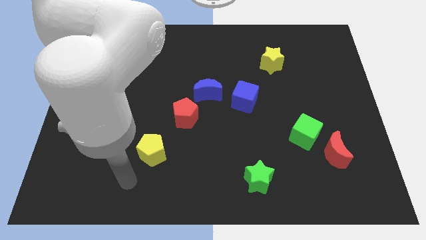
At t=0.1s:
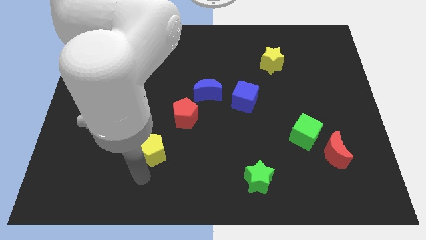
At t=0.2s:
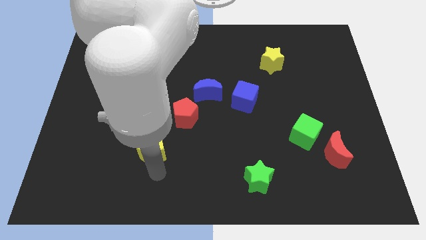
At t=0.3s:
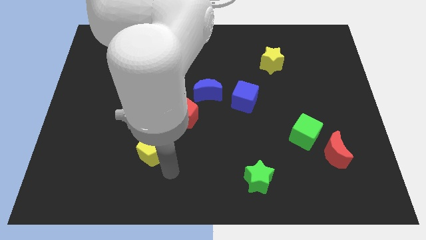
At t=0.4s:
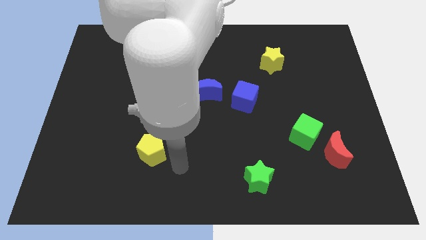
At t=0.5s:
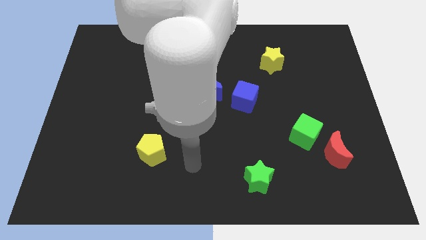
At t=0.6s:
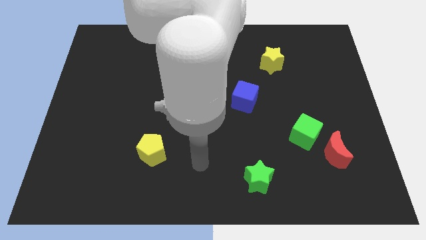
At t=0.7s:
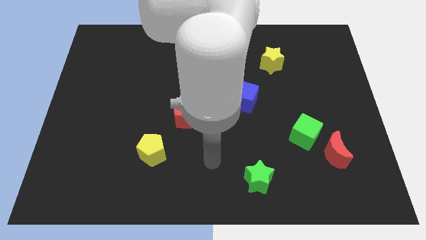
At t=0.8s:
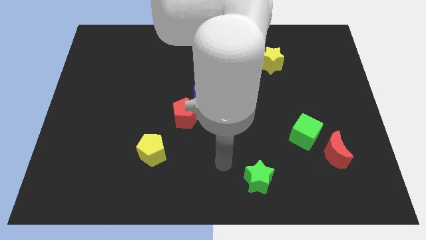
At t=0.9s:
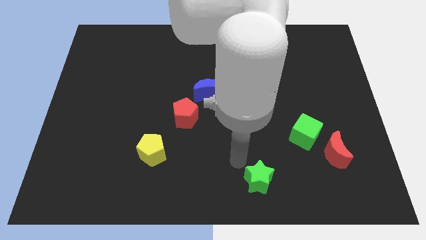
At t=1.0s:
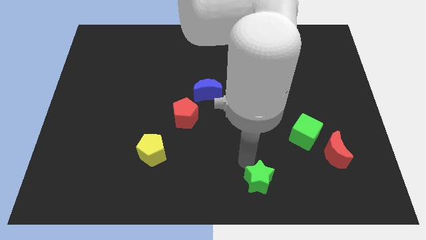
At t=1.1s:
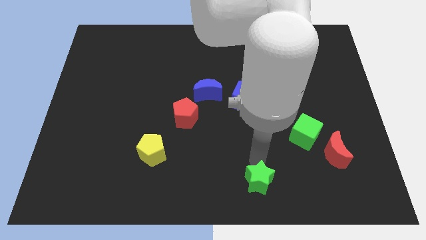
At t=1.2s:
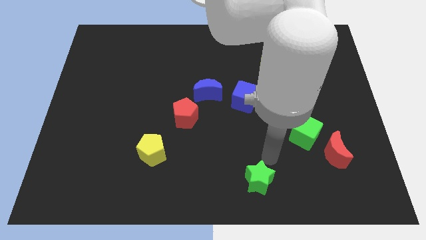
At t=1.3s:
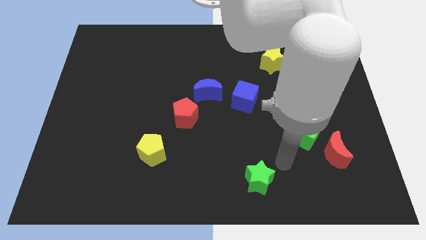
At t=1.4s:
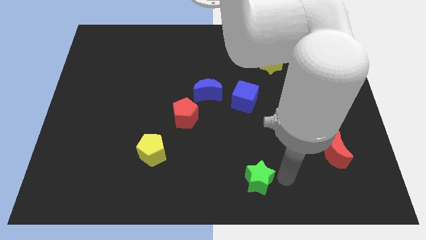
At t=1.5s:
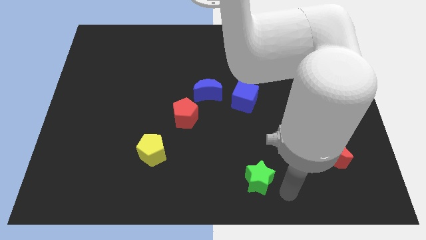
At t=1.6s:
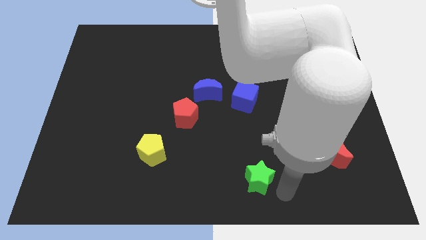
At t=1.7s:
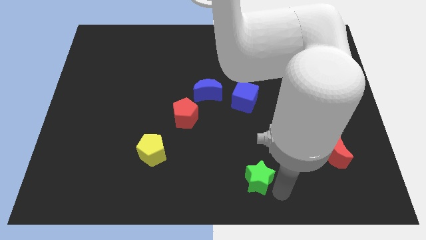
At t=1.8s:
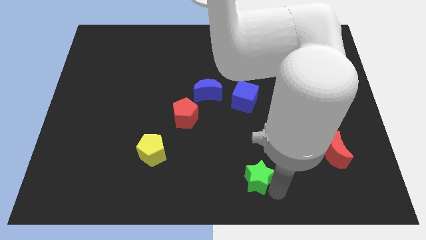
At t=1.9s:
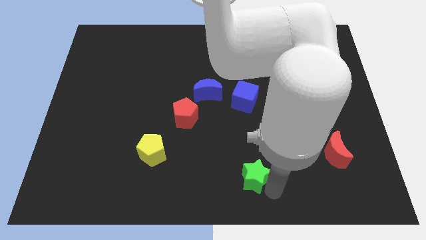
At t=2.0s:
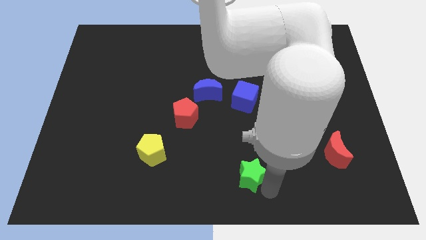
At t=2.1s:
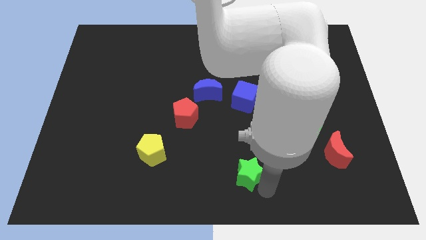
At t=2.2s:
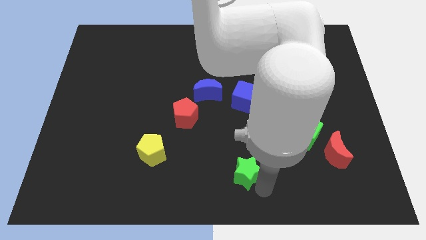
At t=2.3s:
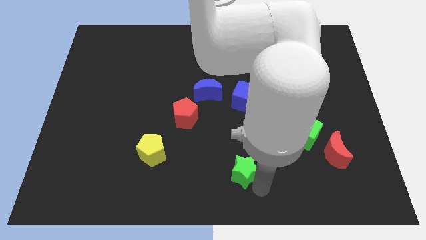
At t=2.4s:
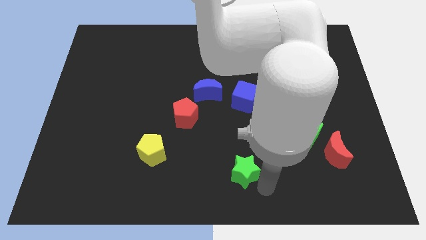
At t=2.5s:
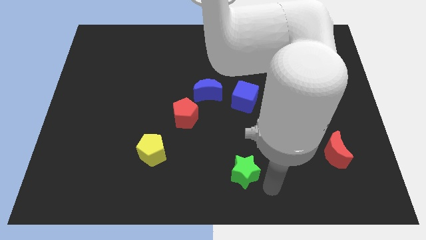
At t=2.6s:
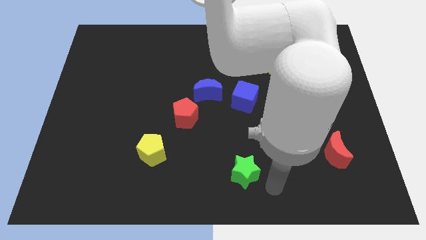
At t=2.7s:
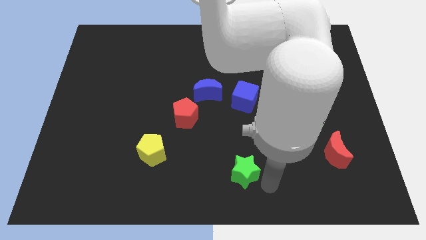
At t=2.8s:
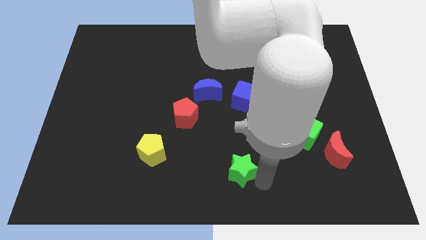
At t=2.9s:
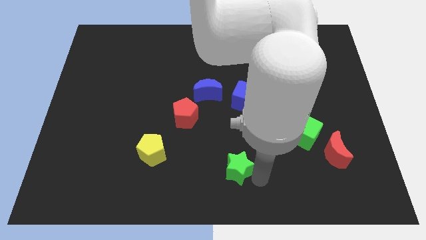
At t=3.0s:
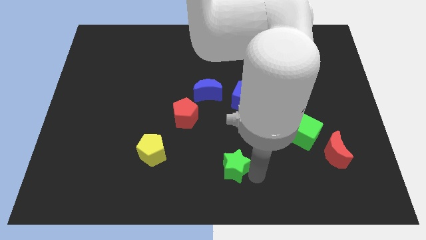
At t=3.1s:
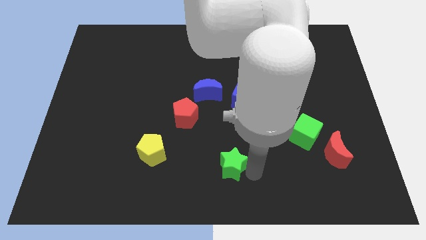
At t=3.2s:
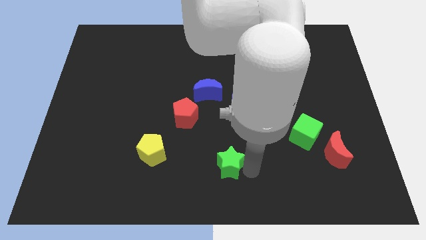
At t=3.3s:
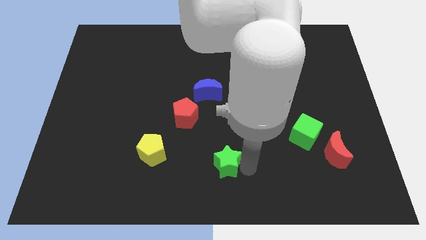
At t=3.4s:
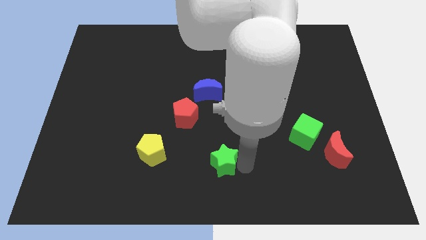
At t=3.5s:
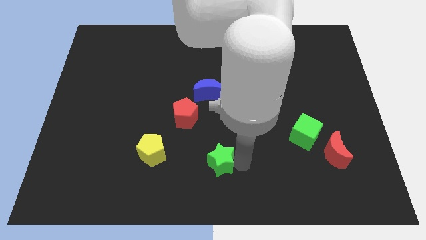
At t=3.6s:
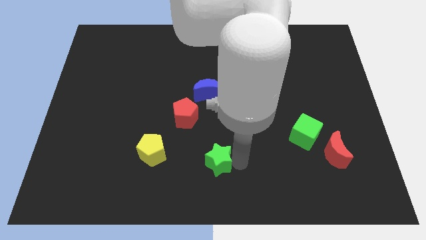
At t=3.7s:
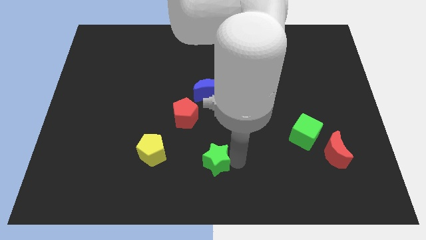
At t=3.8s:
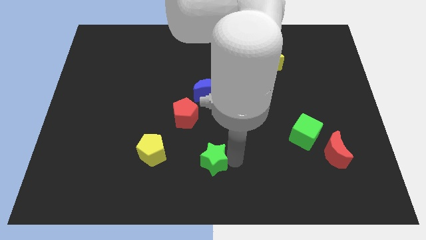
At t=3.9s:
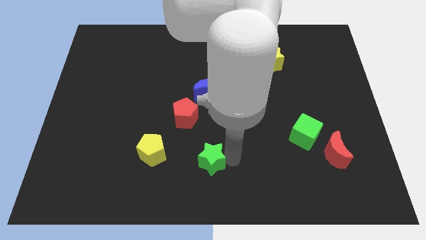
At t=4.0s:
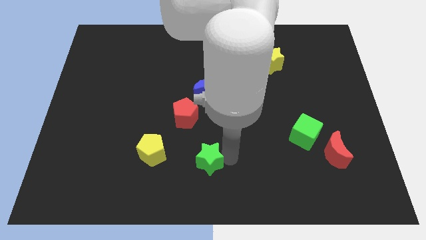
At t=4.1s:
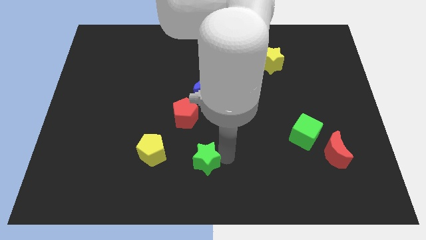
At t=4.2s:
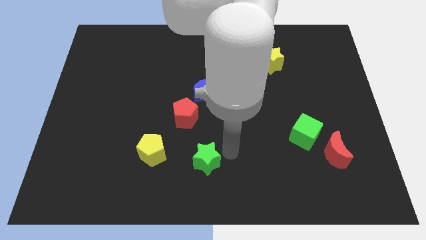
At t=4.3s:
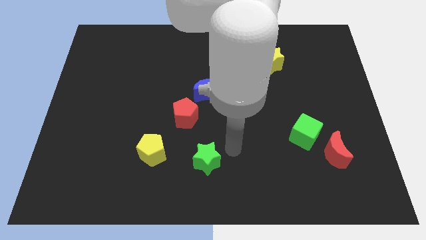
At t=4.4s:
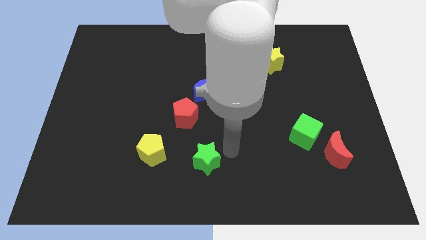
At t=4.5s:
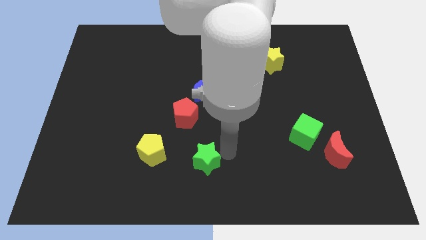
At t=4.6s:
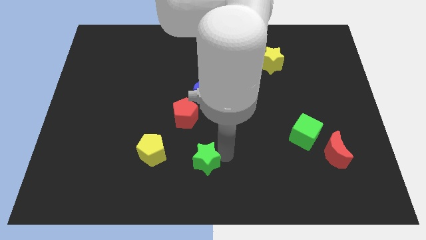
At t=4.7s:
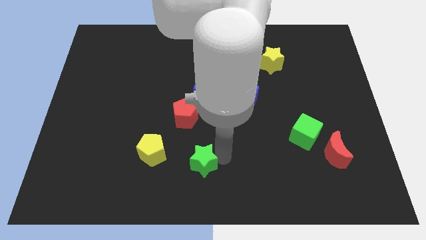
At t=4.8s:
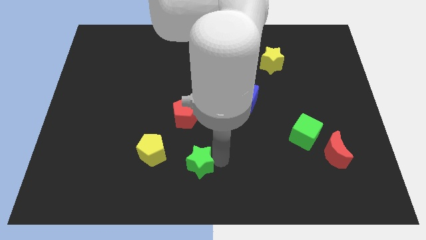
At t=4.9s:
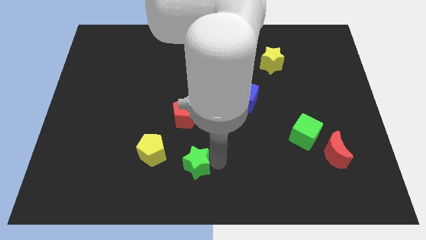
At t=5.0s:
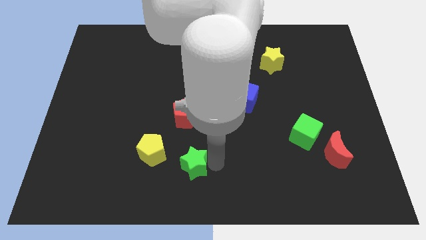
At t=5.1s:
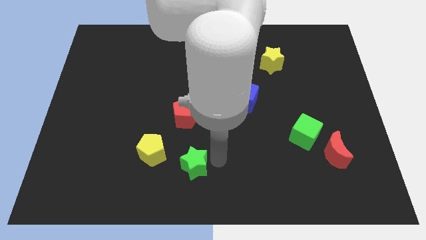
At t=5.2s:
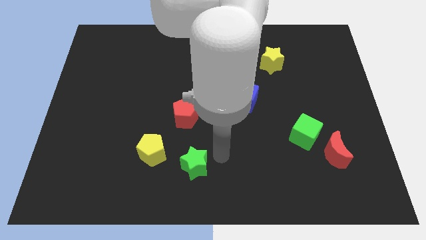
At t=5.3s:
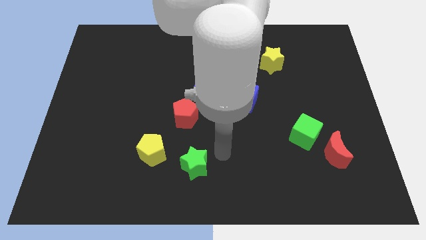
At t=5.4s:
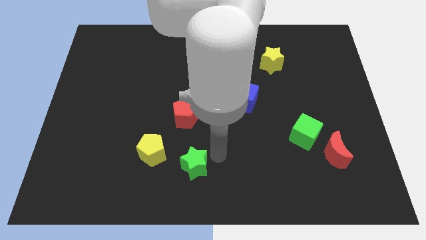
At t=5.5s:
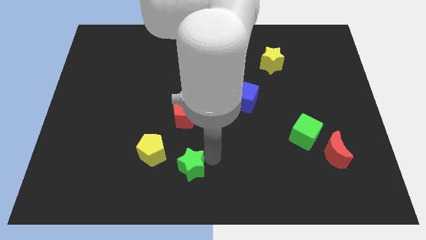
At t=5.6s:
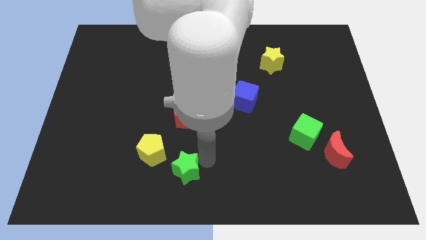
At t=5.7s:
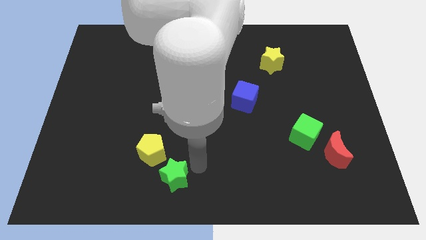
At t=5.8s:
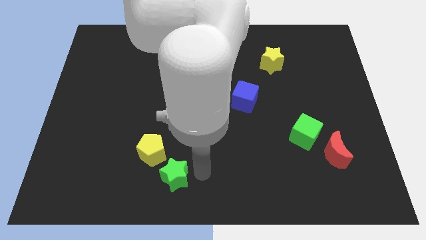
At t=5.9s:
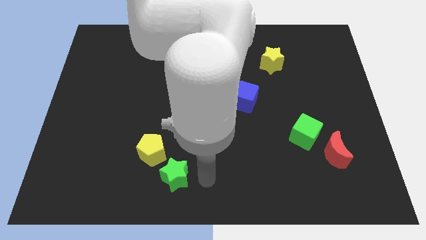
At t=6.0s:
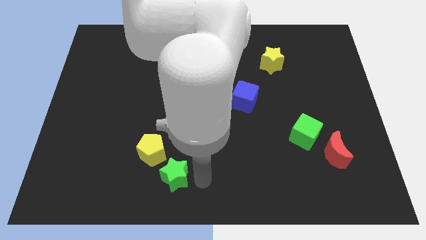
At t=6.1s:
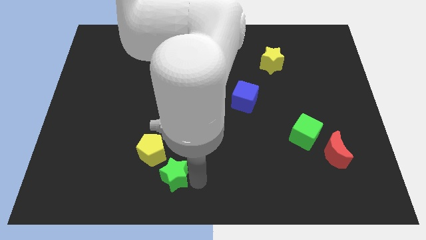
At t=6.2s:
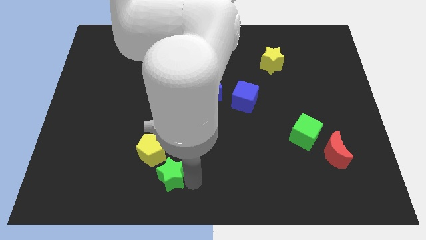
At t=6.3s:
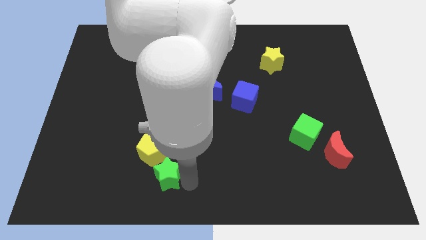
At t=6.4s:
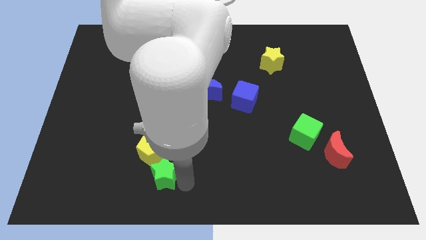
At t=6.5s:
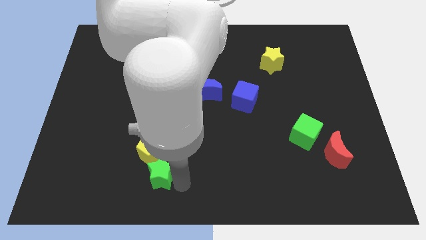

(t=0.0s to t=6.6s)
push the green star to the left

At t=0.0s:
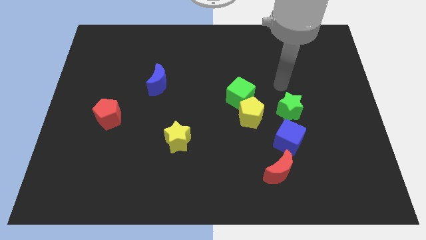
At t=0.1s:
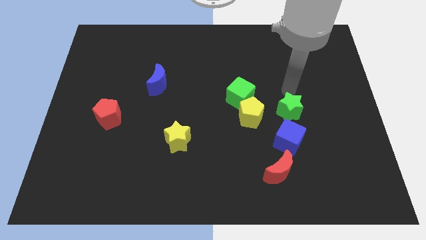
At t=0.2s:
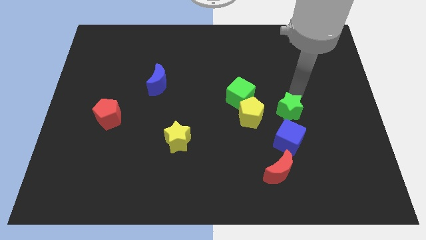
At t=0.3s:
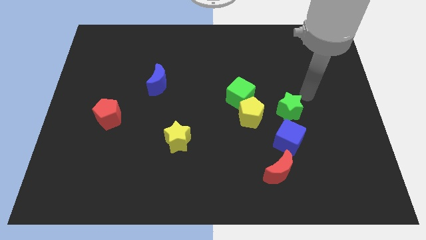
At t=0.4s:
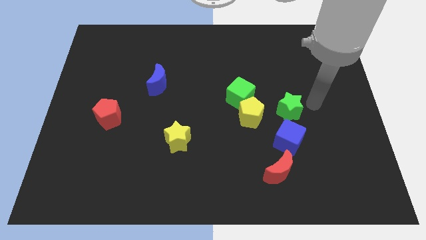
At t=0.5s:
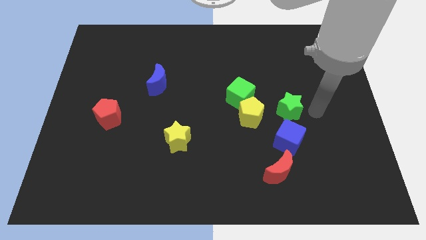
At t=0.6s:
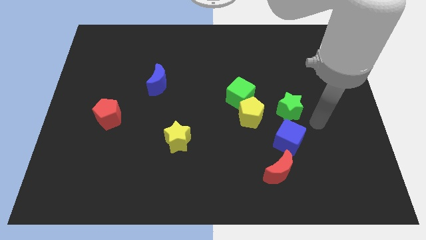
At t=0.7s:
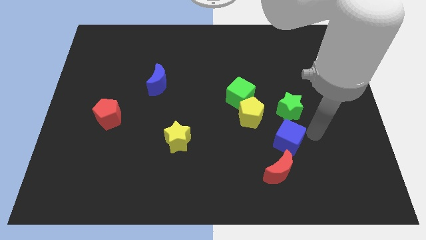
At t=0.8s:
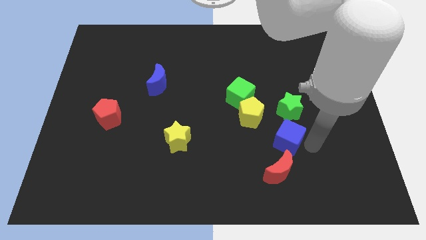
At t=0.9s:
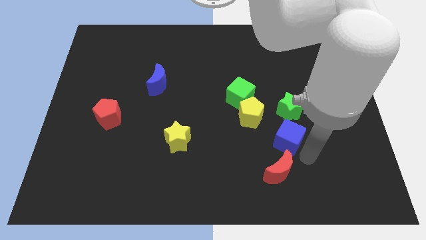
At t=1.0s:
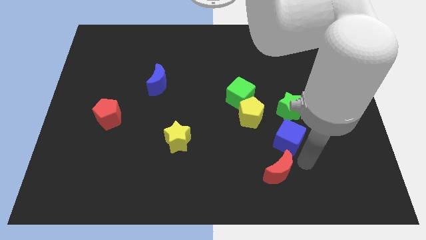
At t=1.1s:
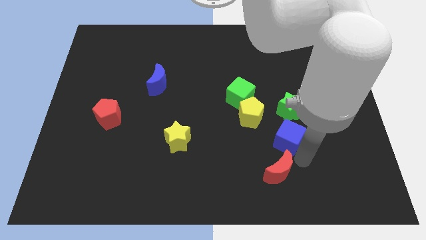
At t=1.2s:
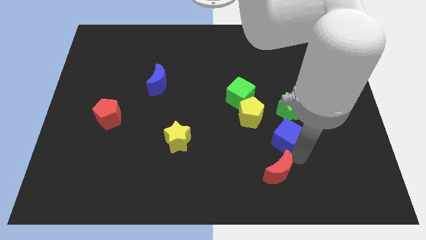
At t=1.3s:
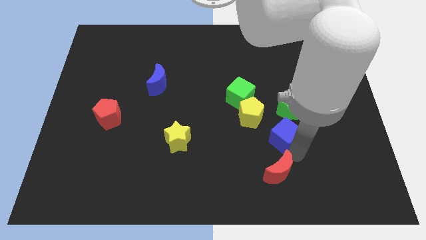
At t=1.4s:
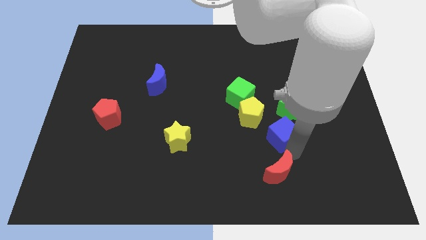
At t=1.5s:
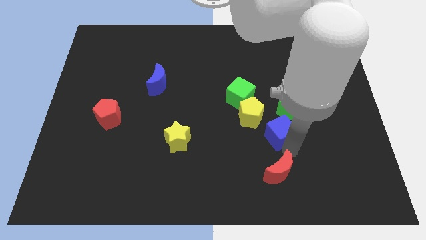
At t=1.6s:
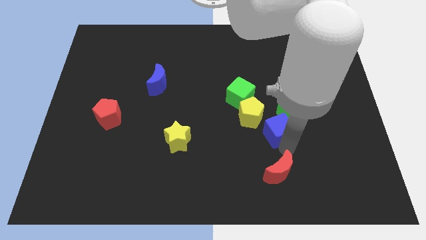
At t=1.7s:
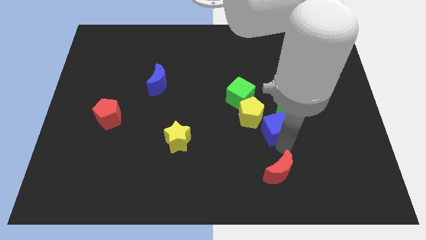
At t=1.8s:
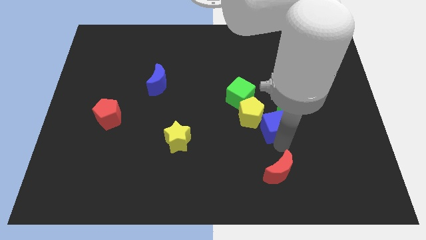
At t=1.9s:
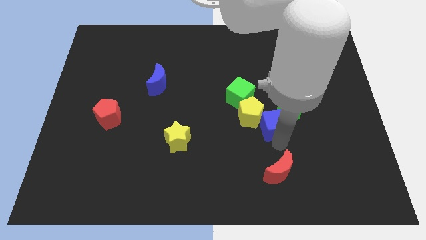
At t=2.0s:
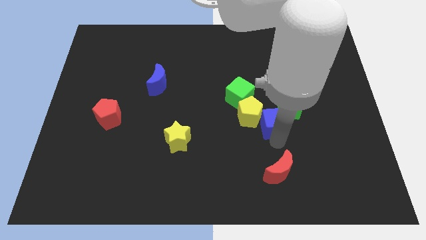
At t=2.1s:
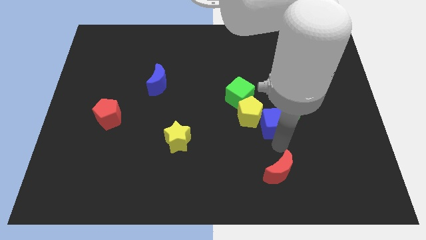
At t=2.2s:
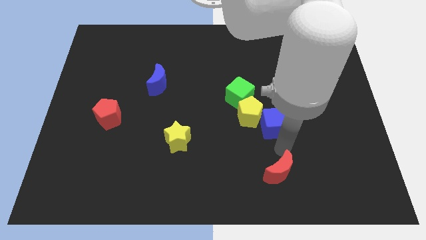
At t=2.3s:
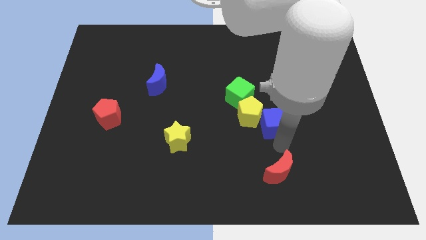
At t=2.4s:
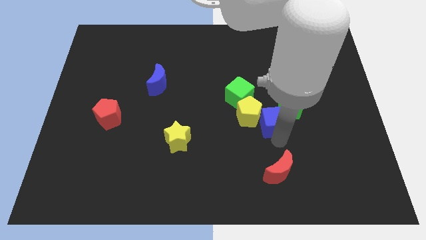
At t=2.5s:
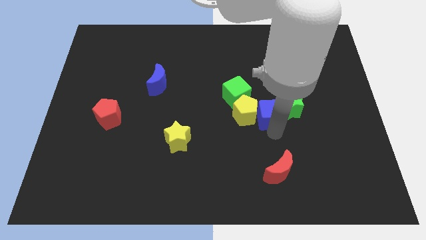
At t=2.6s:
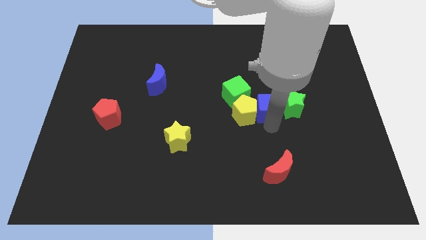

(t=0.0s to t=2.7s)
push the blue cube up somewhat
